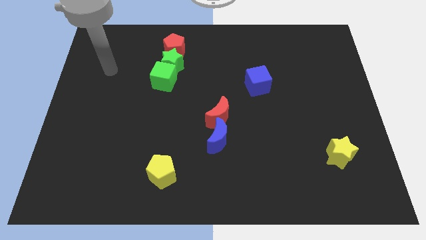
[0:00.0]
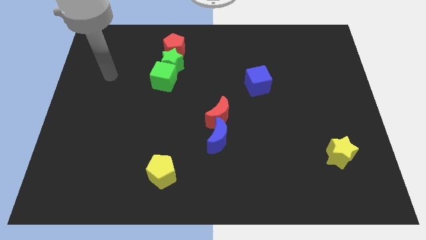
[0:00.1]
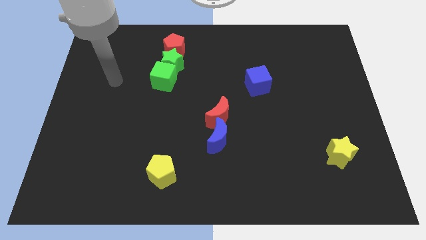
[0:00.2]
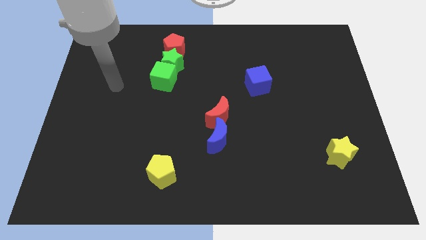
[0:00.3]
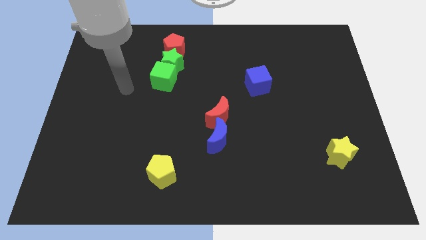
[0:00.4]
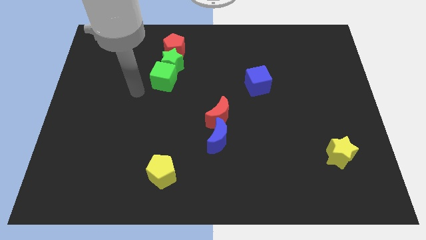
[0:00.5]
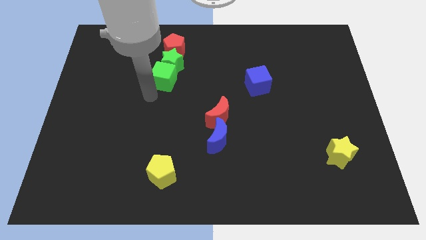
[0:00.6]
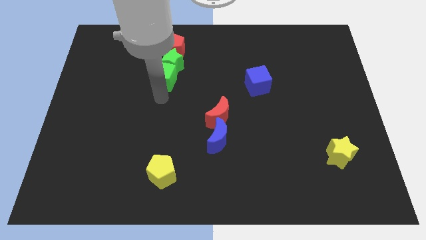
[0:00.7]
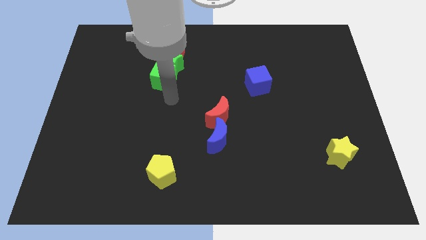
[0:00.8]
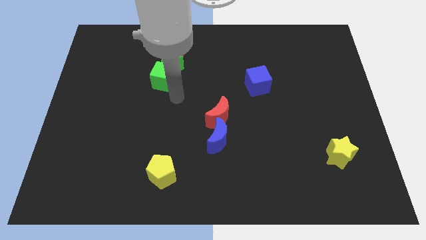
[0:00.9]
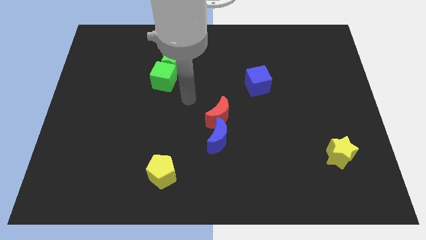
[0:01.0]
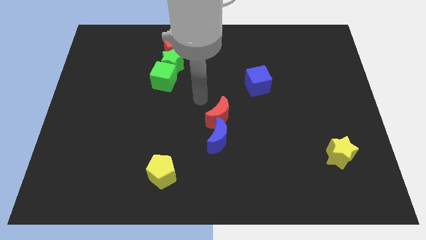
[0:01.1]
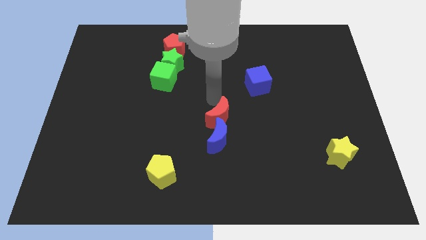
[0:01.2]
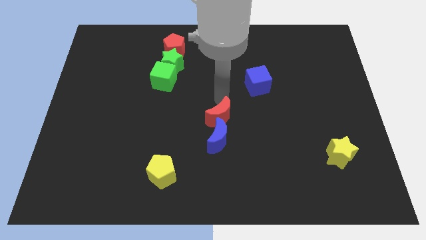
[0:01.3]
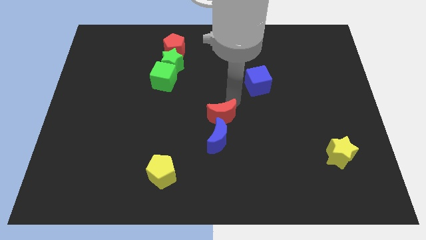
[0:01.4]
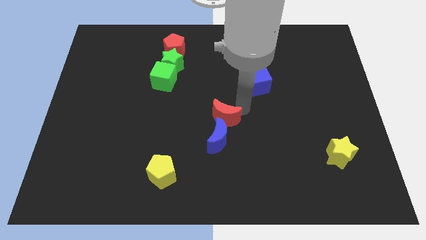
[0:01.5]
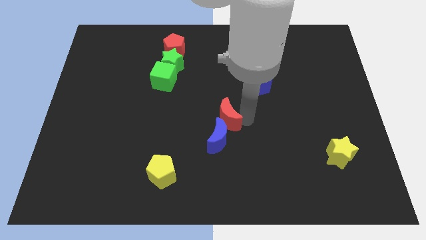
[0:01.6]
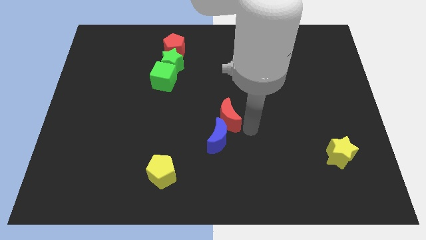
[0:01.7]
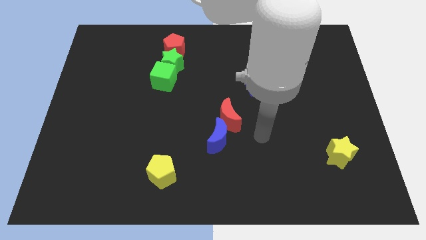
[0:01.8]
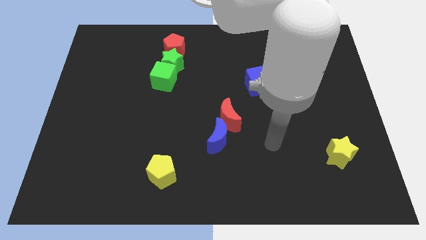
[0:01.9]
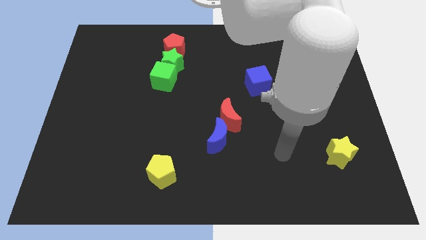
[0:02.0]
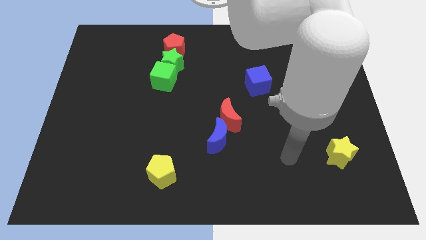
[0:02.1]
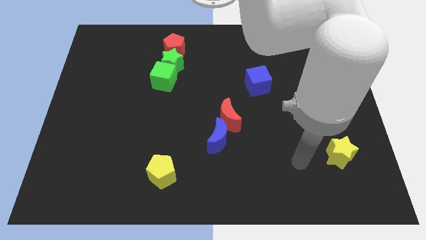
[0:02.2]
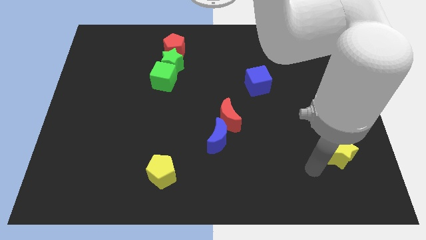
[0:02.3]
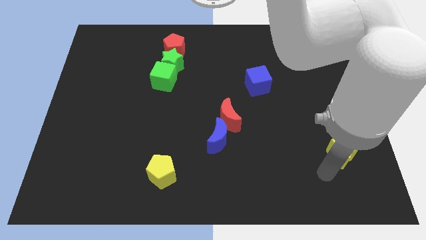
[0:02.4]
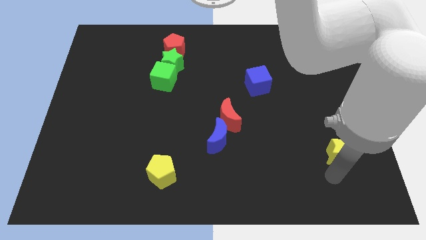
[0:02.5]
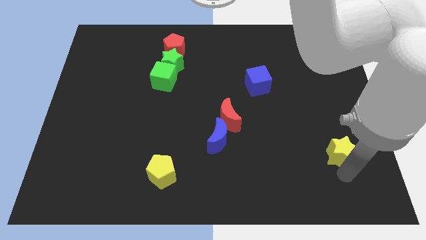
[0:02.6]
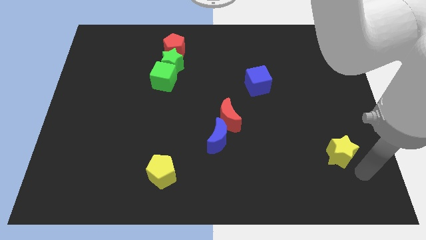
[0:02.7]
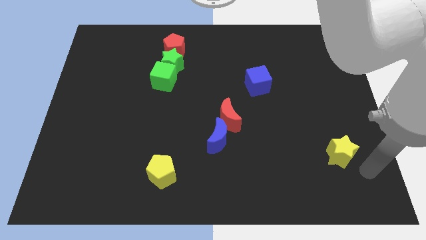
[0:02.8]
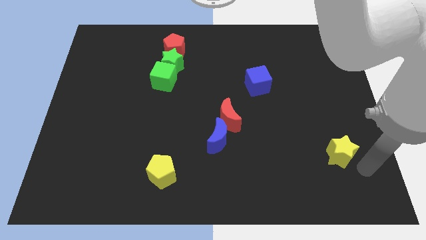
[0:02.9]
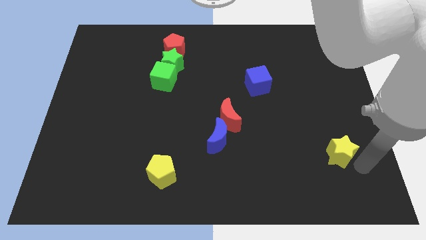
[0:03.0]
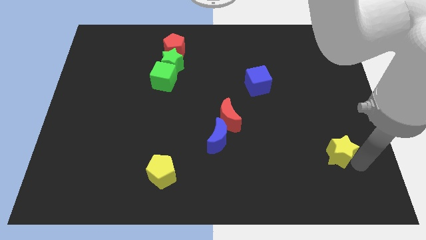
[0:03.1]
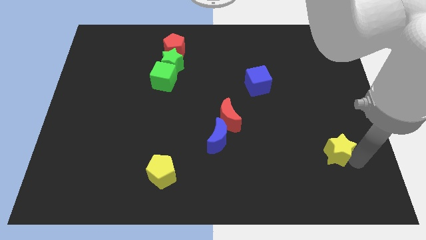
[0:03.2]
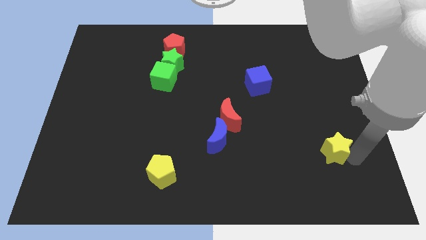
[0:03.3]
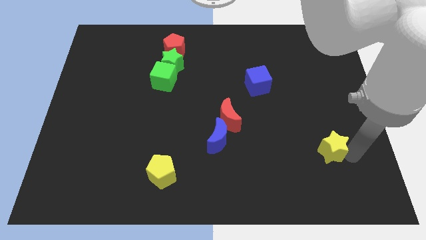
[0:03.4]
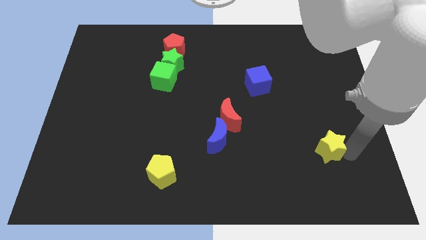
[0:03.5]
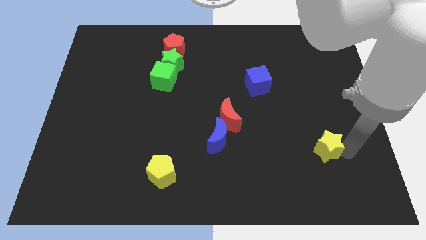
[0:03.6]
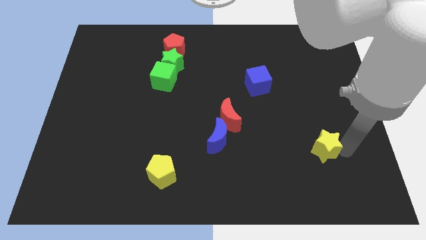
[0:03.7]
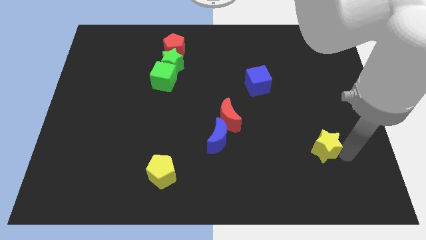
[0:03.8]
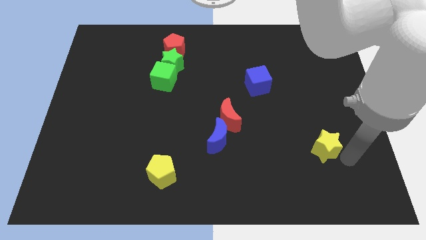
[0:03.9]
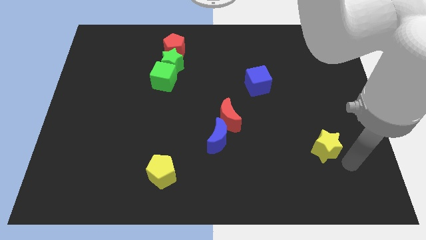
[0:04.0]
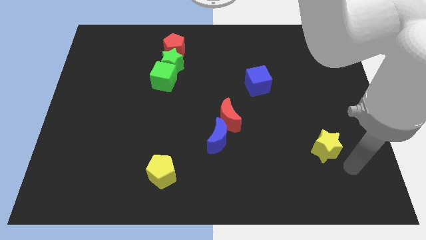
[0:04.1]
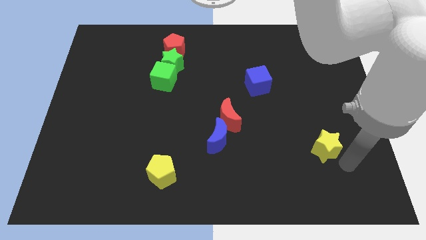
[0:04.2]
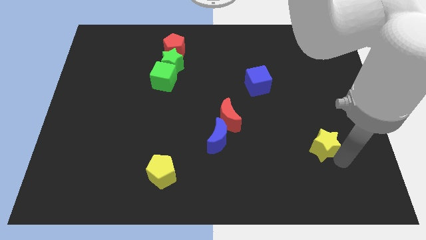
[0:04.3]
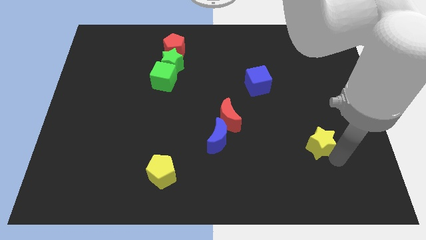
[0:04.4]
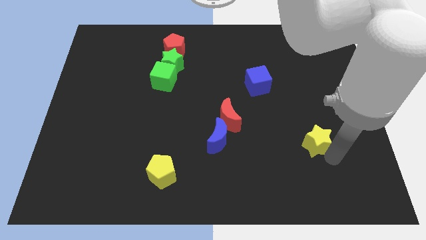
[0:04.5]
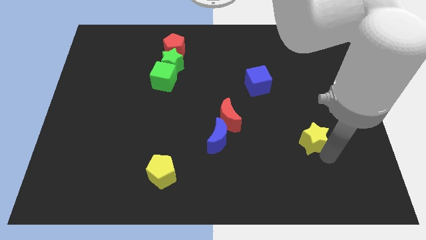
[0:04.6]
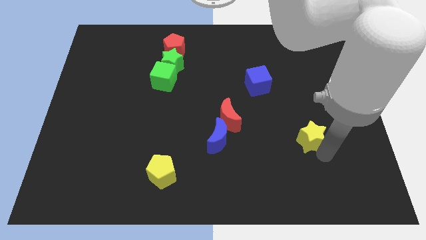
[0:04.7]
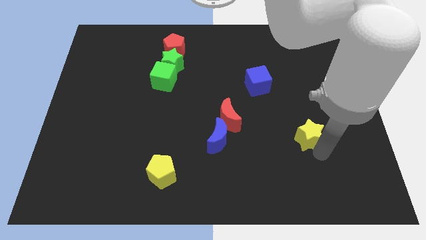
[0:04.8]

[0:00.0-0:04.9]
slightly push the yellow star upwards and then to the left

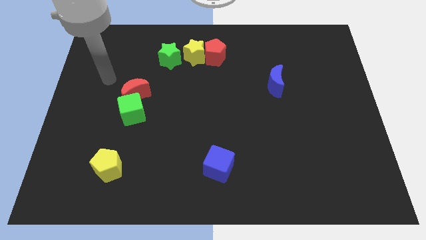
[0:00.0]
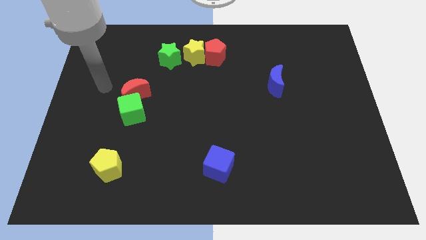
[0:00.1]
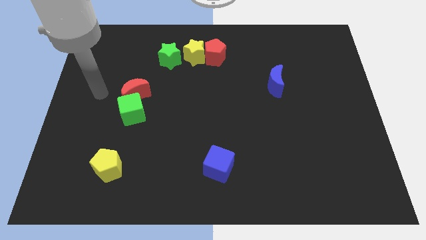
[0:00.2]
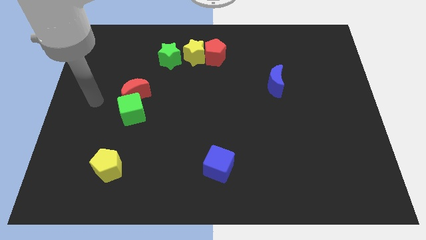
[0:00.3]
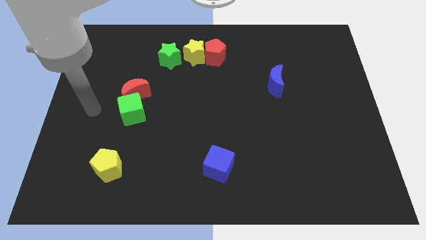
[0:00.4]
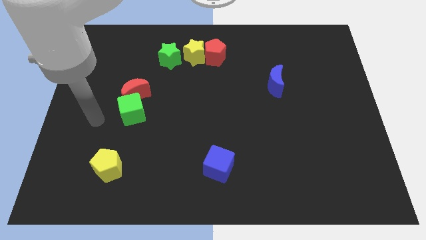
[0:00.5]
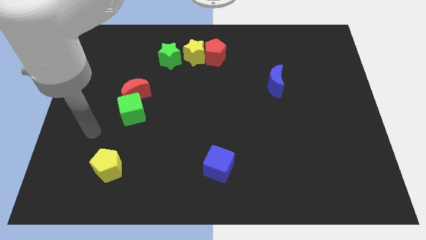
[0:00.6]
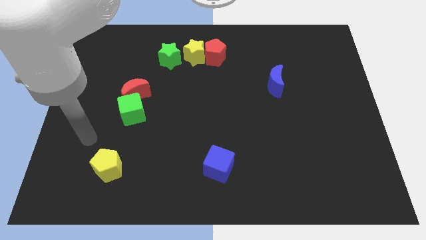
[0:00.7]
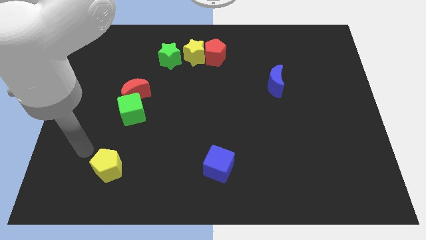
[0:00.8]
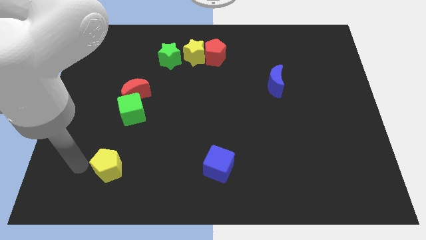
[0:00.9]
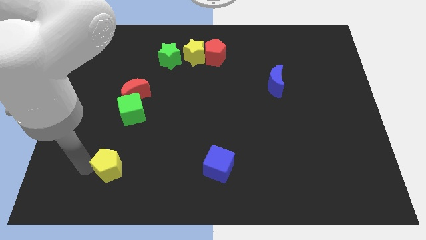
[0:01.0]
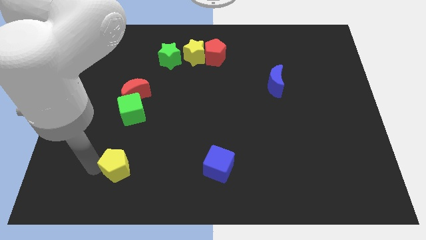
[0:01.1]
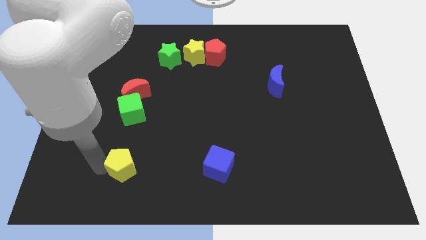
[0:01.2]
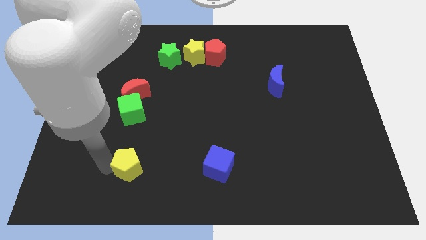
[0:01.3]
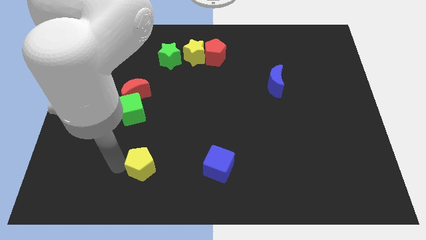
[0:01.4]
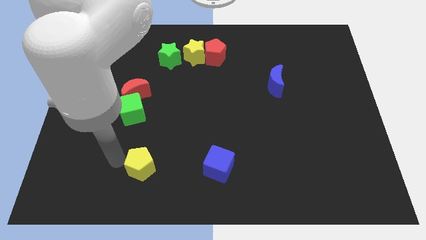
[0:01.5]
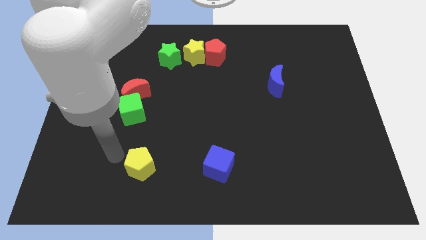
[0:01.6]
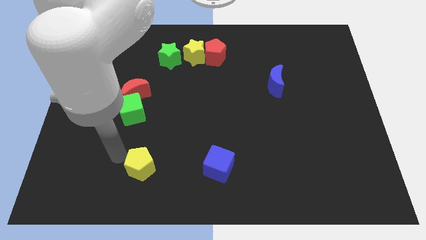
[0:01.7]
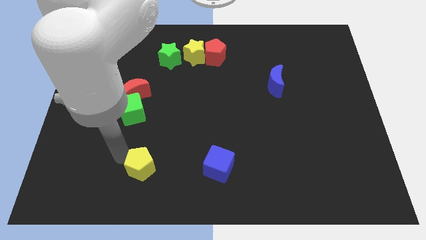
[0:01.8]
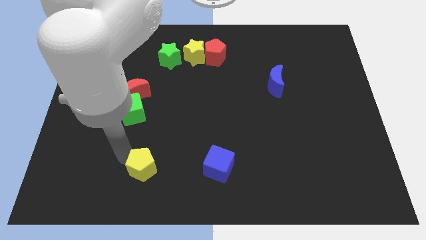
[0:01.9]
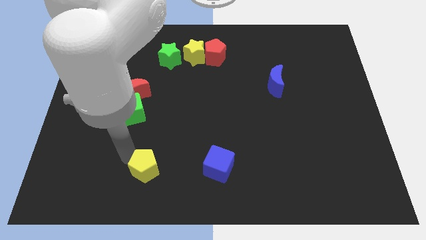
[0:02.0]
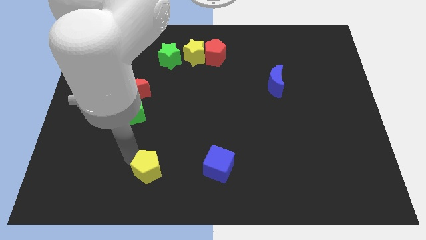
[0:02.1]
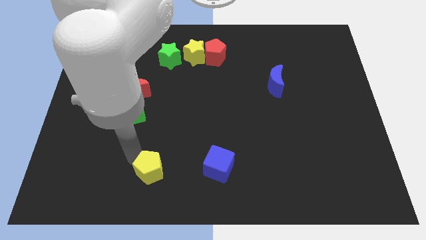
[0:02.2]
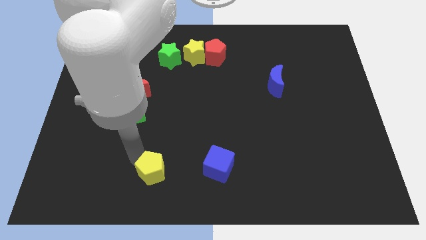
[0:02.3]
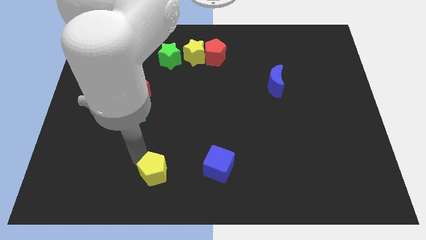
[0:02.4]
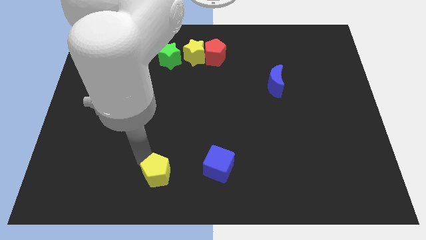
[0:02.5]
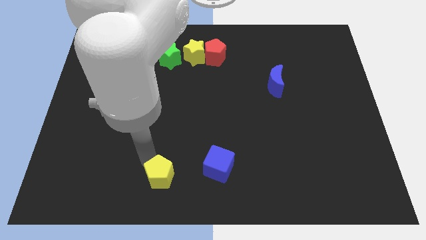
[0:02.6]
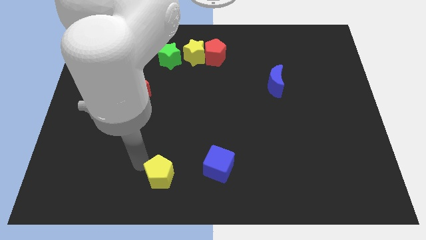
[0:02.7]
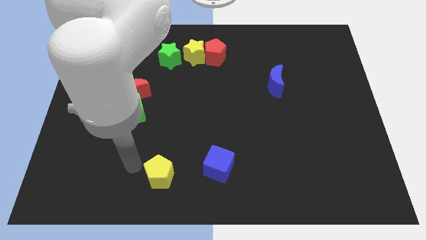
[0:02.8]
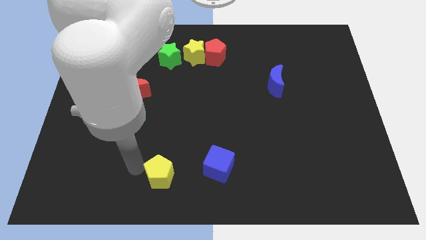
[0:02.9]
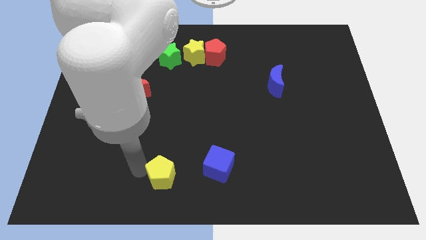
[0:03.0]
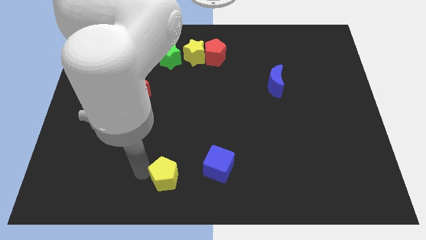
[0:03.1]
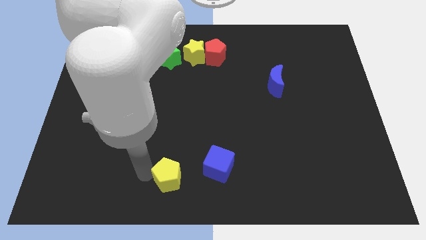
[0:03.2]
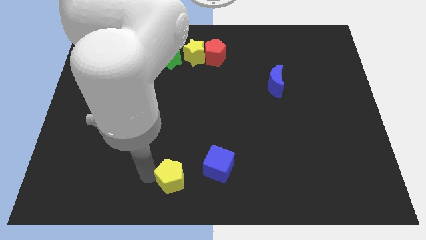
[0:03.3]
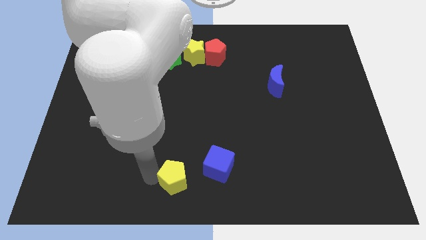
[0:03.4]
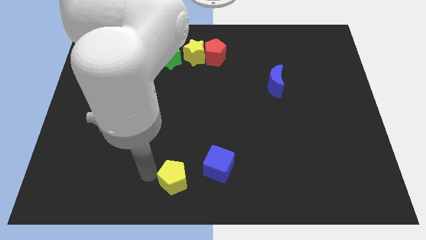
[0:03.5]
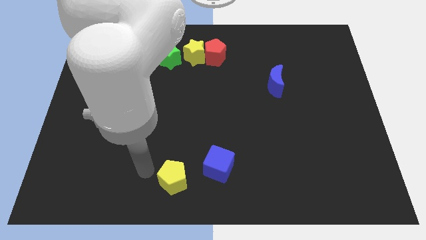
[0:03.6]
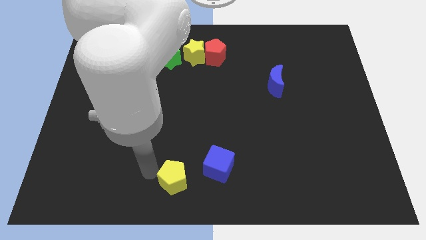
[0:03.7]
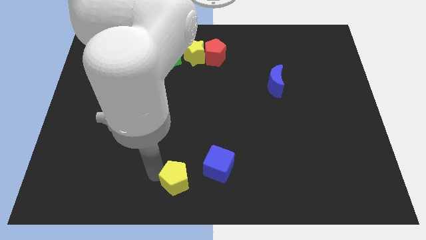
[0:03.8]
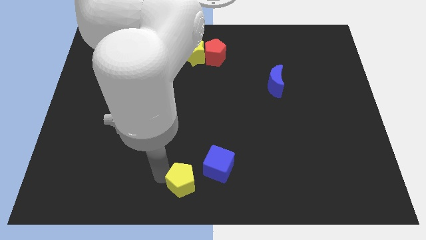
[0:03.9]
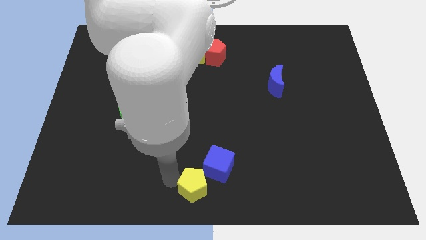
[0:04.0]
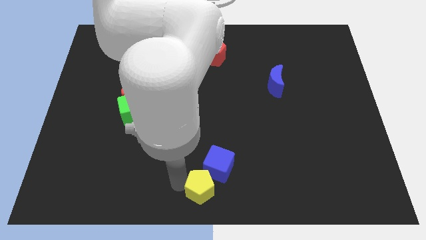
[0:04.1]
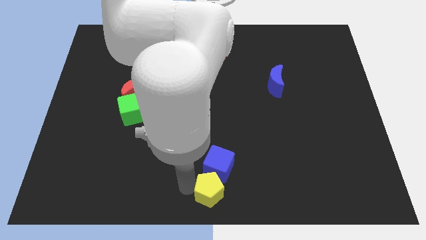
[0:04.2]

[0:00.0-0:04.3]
push the yellow pentagon right
